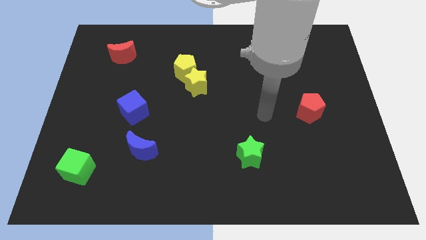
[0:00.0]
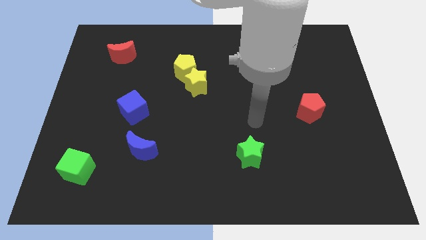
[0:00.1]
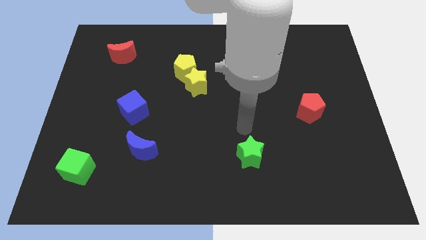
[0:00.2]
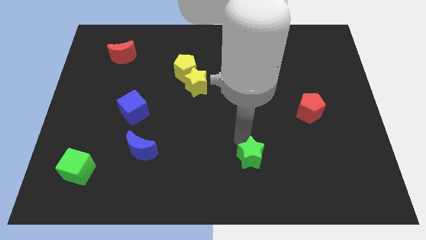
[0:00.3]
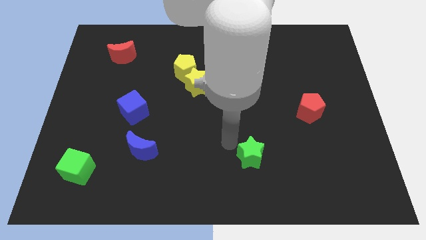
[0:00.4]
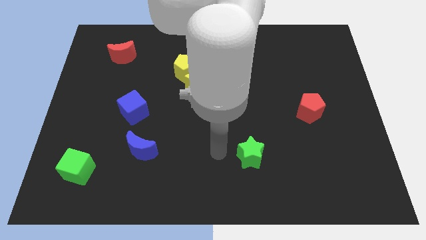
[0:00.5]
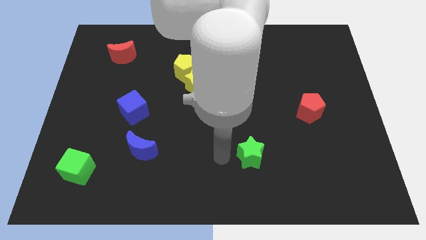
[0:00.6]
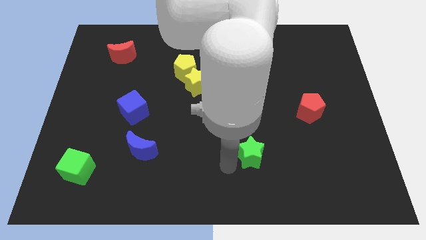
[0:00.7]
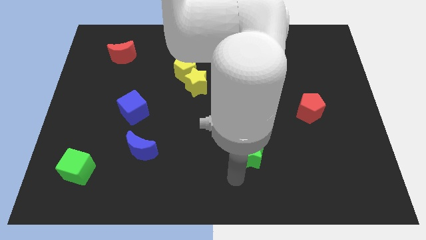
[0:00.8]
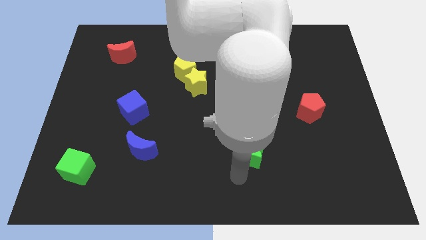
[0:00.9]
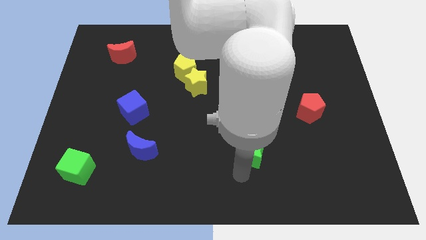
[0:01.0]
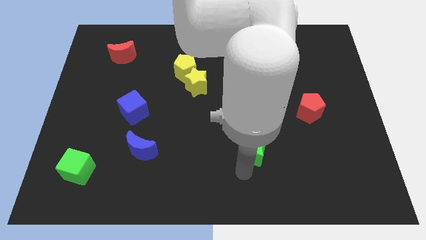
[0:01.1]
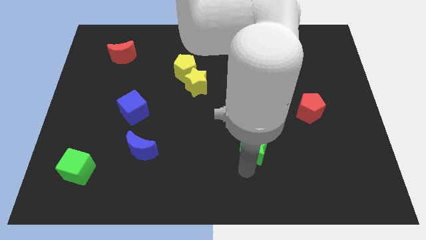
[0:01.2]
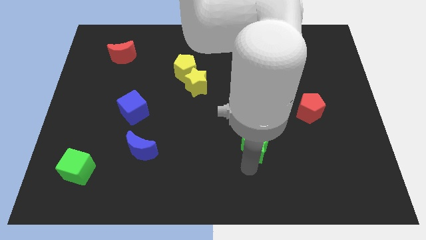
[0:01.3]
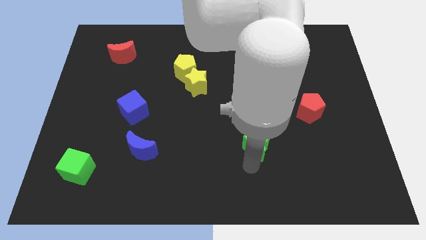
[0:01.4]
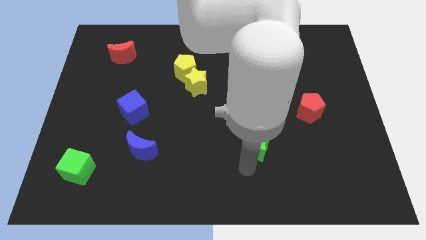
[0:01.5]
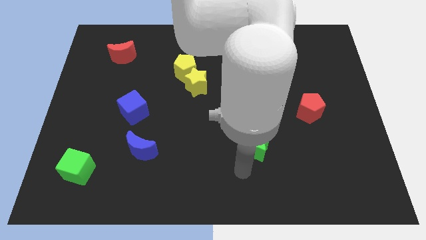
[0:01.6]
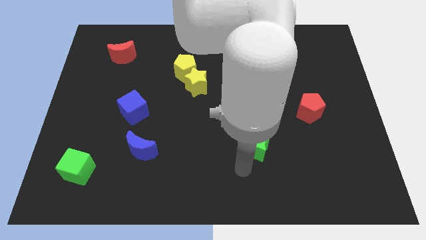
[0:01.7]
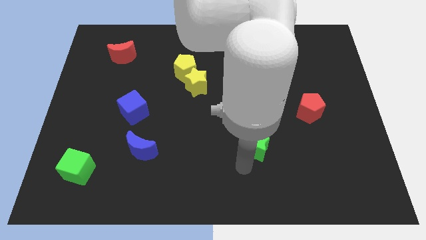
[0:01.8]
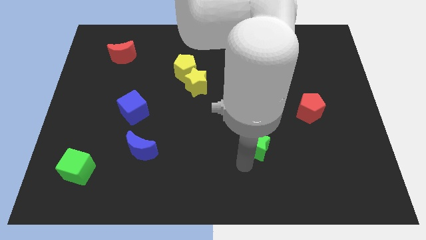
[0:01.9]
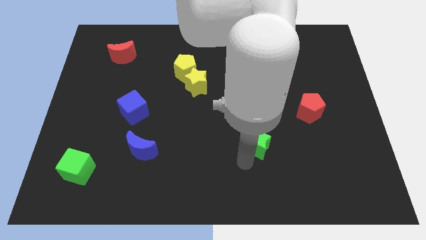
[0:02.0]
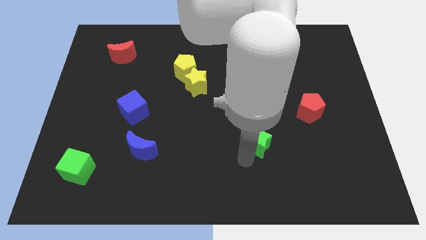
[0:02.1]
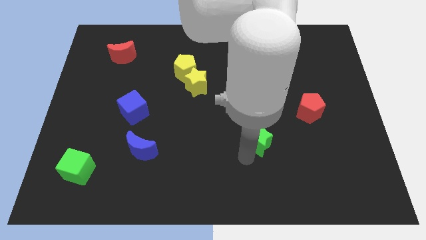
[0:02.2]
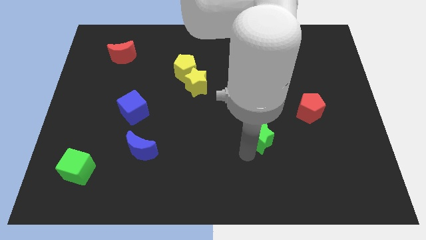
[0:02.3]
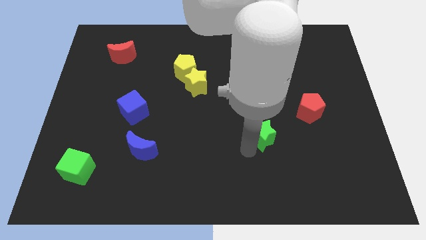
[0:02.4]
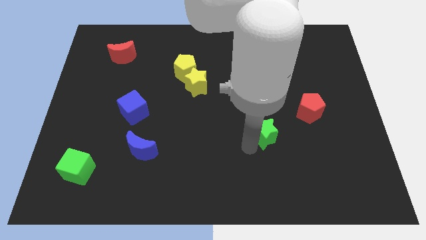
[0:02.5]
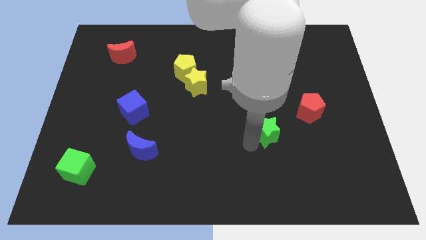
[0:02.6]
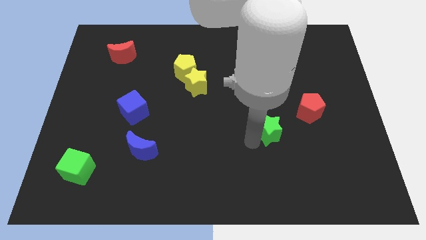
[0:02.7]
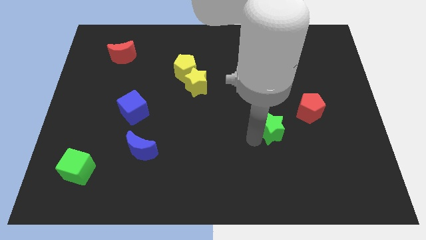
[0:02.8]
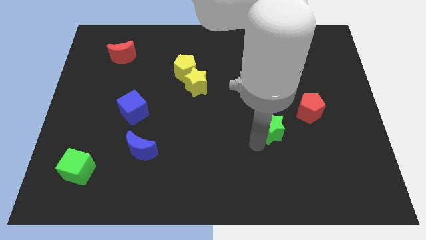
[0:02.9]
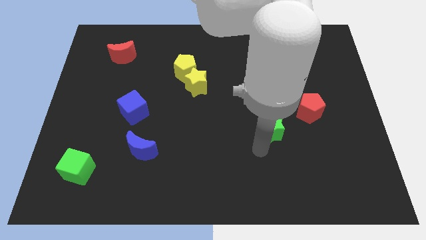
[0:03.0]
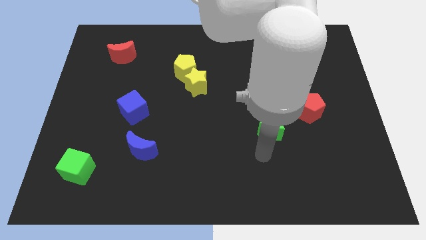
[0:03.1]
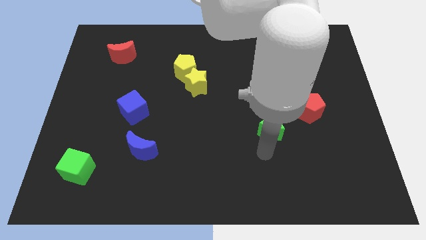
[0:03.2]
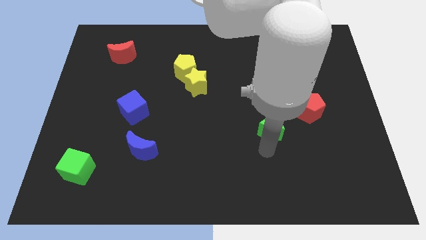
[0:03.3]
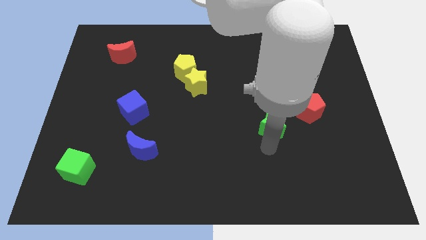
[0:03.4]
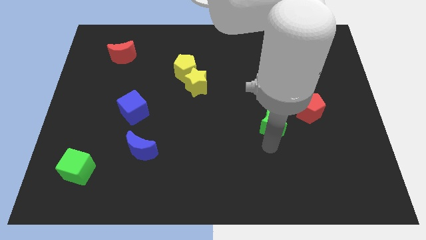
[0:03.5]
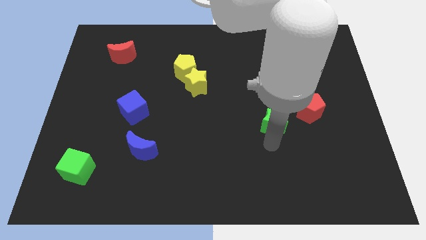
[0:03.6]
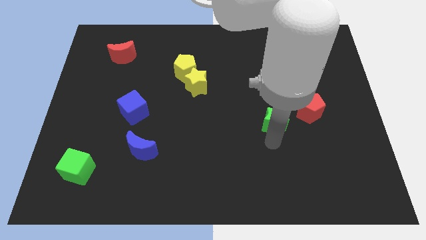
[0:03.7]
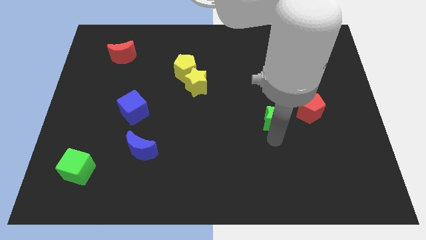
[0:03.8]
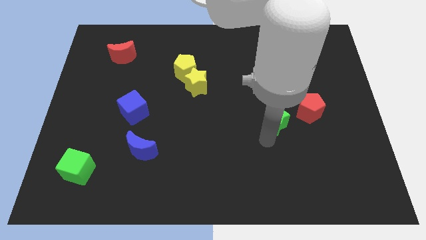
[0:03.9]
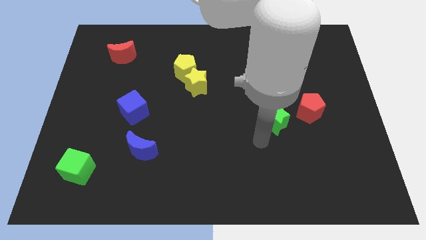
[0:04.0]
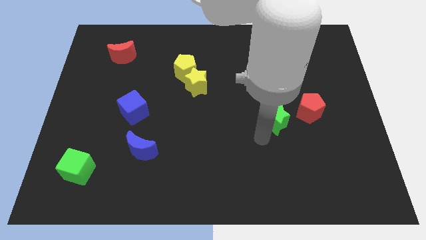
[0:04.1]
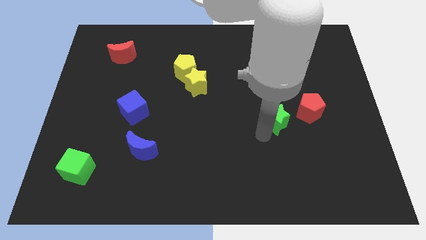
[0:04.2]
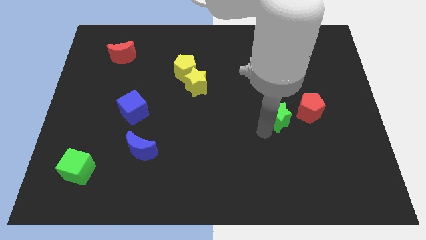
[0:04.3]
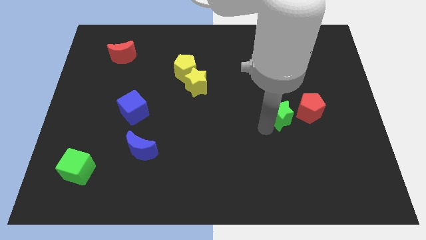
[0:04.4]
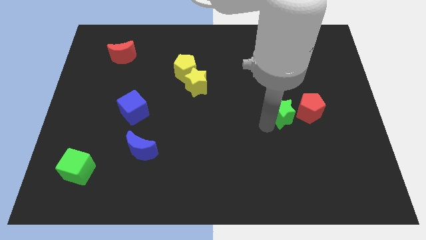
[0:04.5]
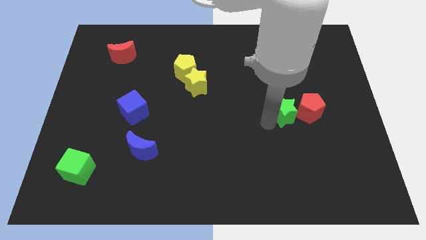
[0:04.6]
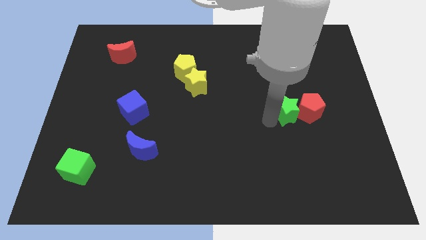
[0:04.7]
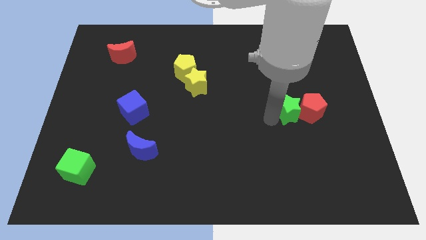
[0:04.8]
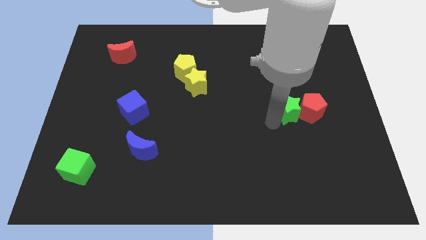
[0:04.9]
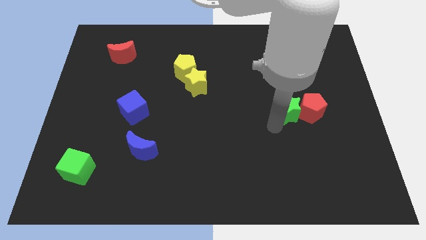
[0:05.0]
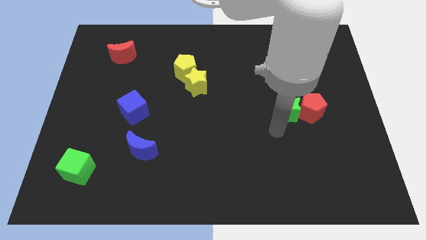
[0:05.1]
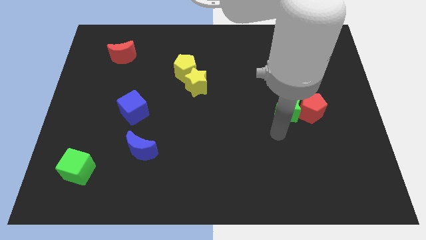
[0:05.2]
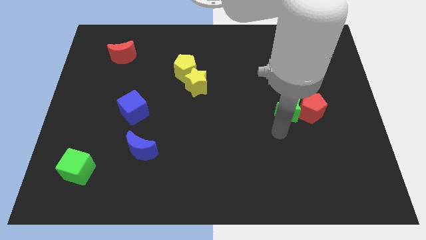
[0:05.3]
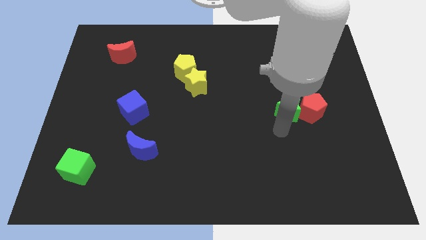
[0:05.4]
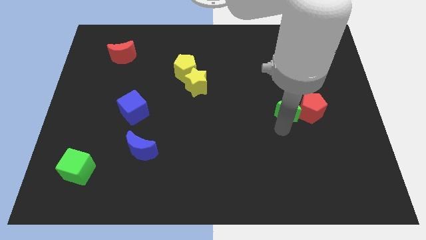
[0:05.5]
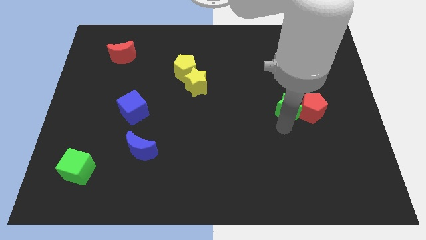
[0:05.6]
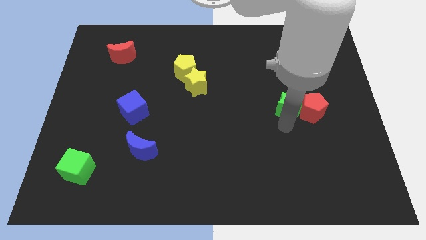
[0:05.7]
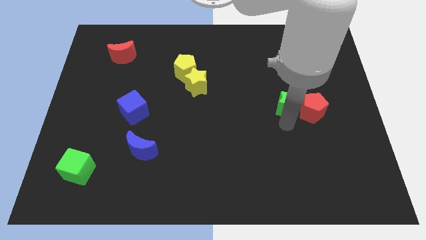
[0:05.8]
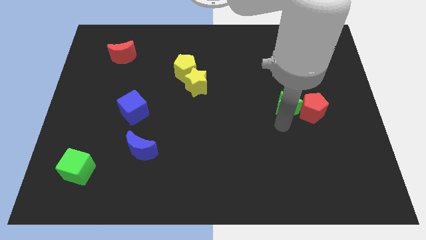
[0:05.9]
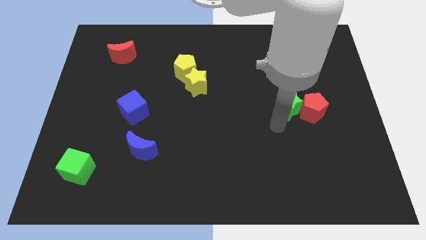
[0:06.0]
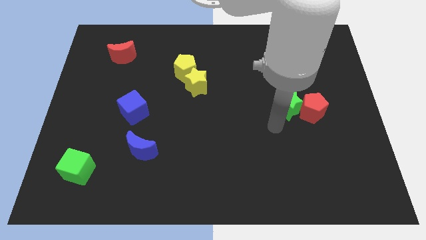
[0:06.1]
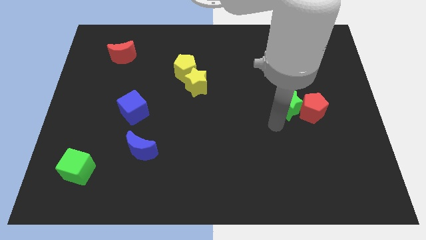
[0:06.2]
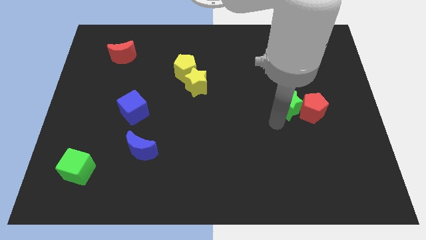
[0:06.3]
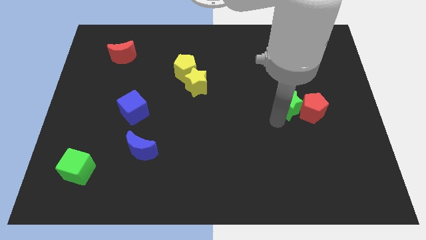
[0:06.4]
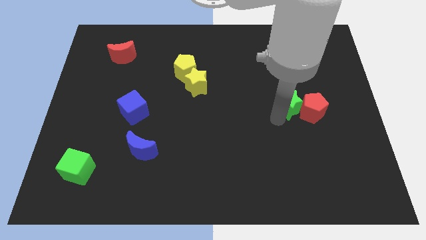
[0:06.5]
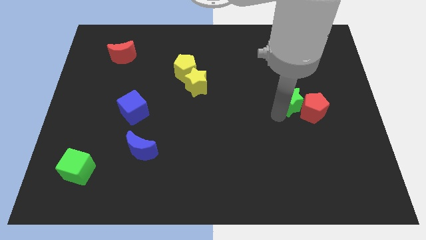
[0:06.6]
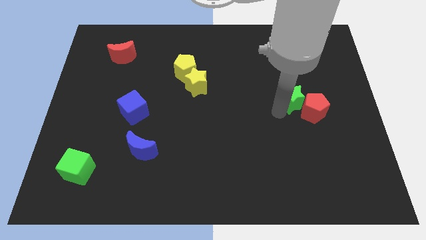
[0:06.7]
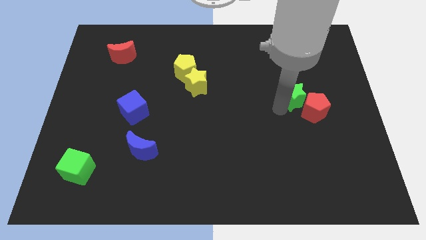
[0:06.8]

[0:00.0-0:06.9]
slide the green star above the red pentagon
